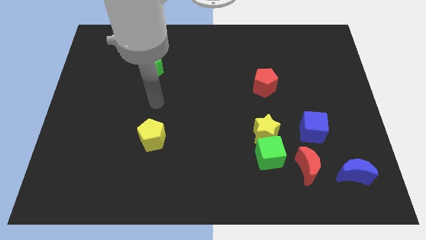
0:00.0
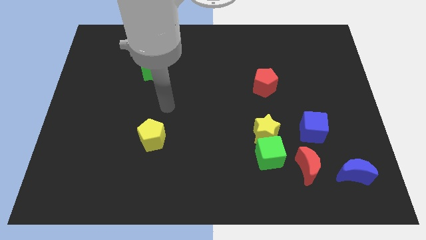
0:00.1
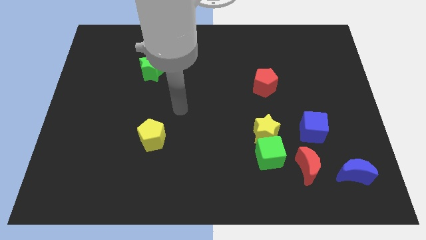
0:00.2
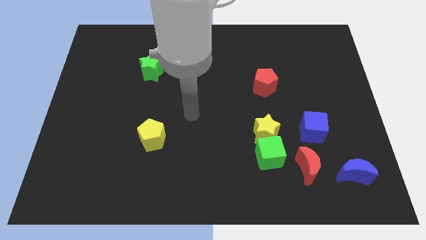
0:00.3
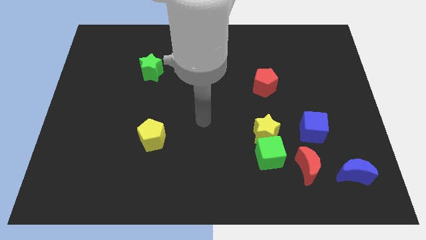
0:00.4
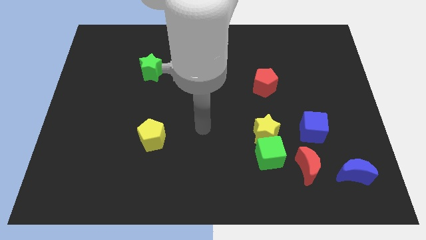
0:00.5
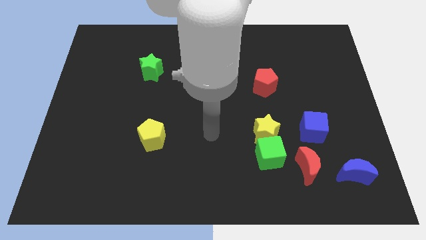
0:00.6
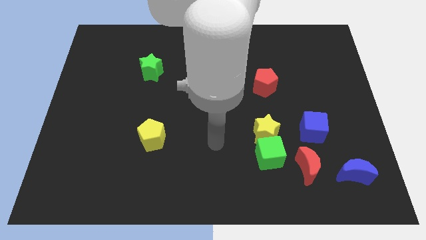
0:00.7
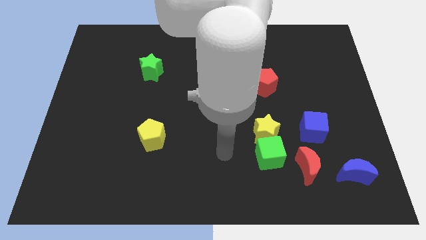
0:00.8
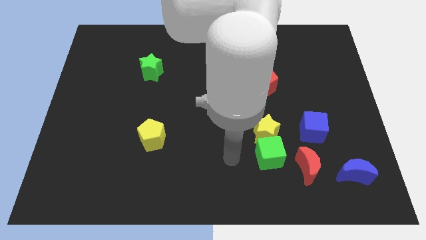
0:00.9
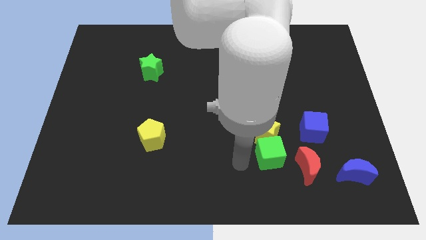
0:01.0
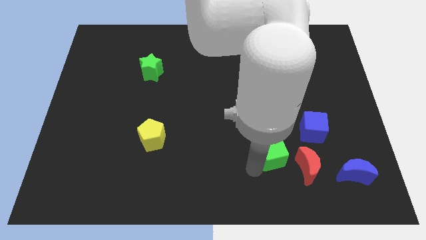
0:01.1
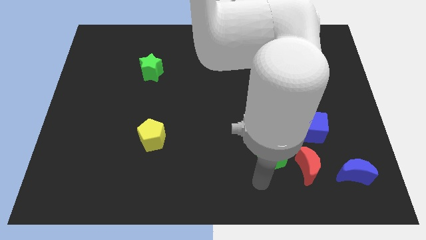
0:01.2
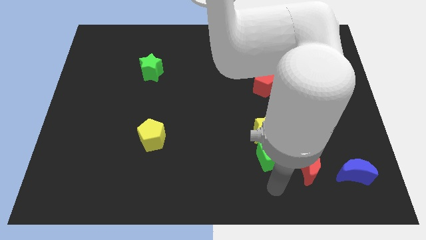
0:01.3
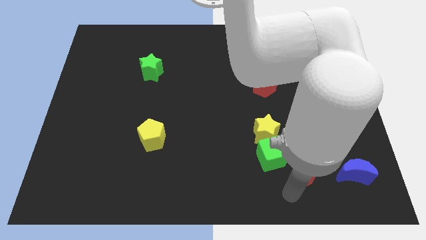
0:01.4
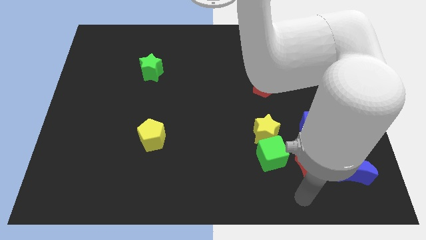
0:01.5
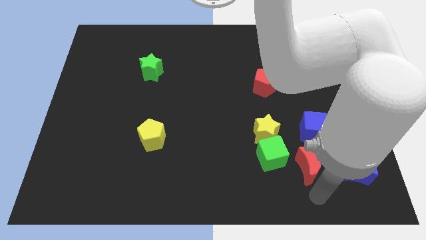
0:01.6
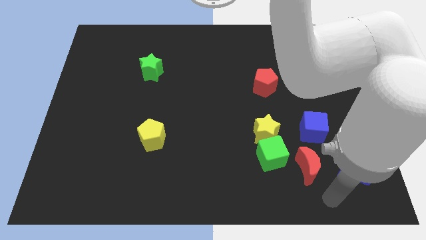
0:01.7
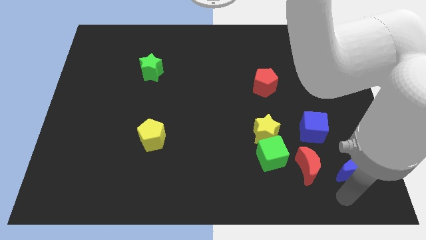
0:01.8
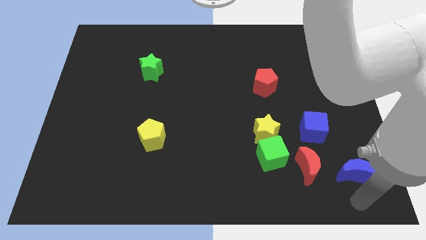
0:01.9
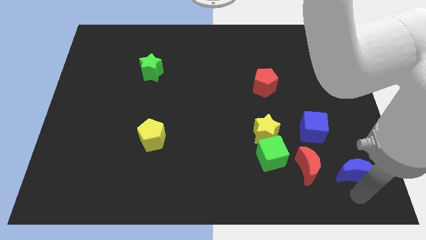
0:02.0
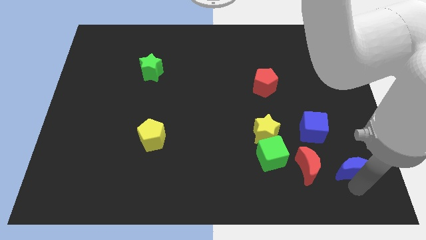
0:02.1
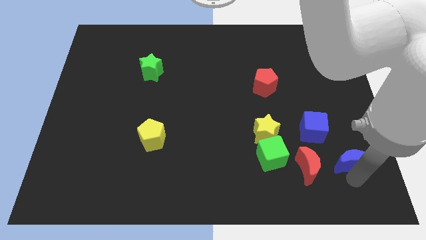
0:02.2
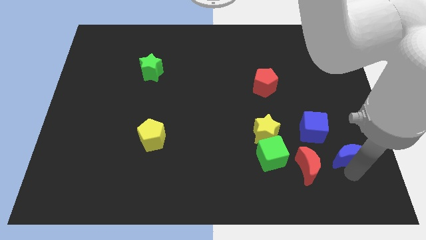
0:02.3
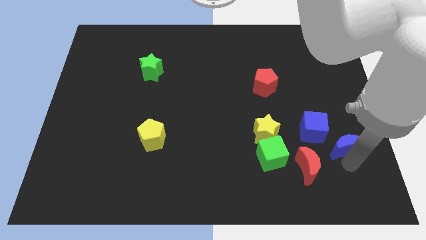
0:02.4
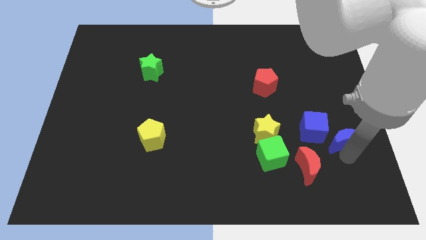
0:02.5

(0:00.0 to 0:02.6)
slide the blue moon a bit up

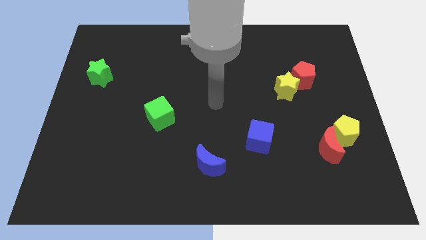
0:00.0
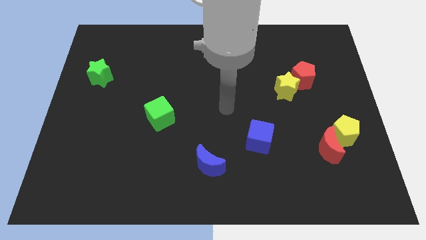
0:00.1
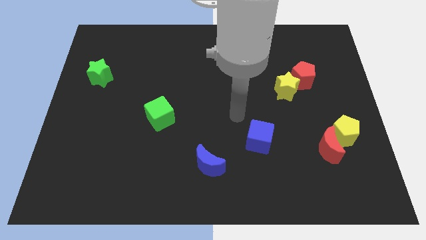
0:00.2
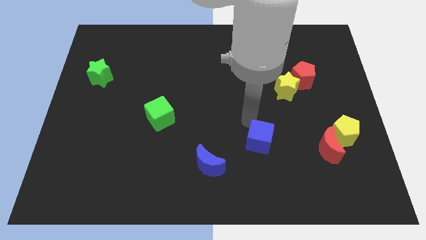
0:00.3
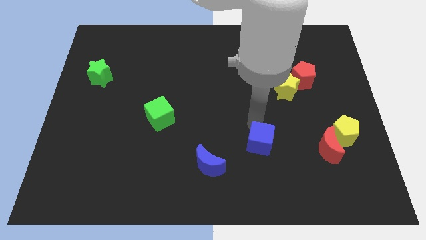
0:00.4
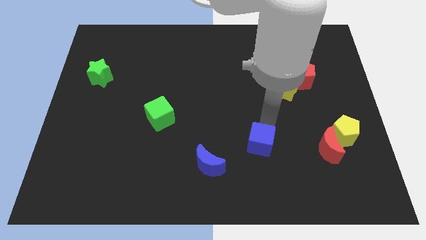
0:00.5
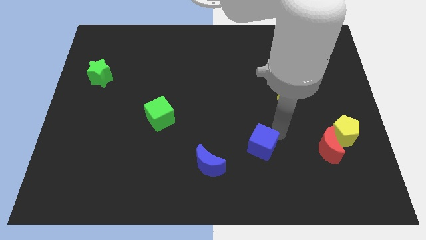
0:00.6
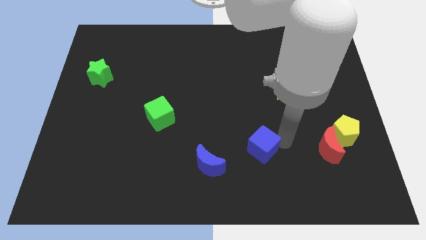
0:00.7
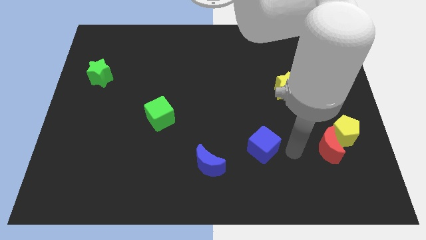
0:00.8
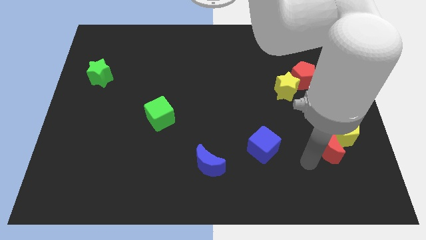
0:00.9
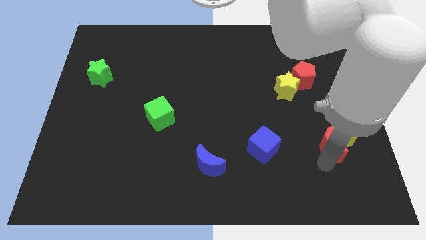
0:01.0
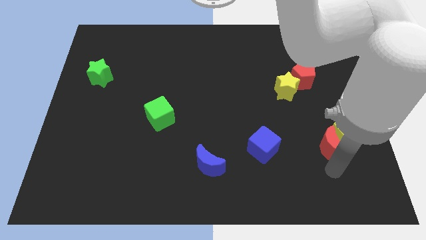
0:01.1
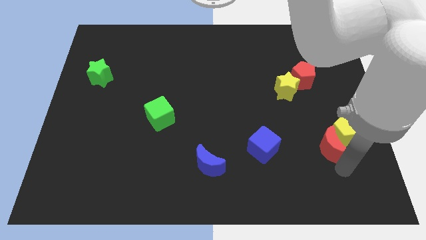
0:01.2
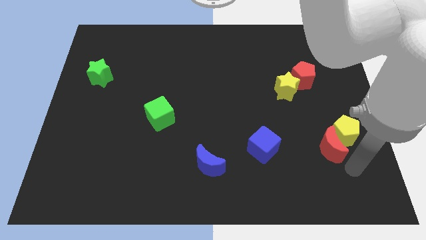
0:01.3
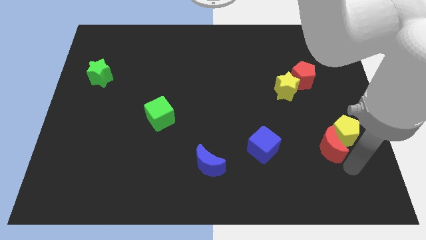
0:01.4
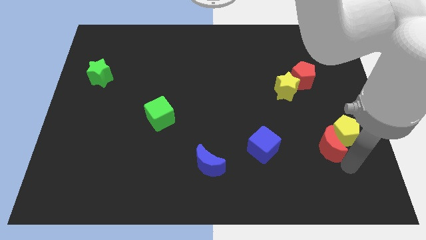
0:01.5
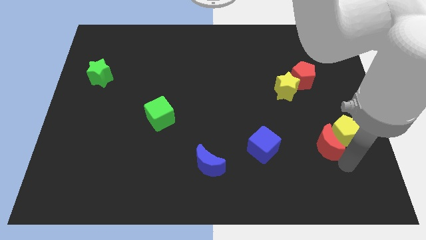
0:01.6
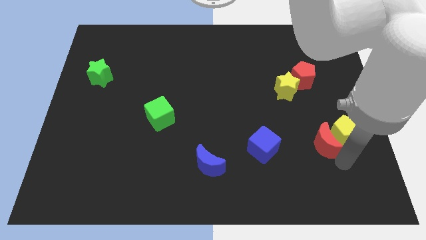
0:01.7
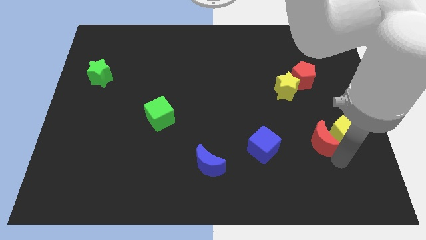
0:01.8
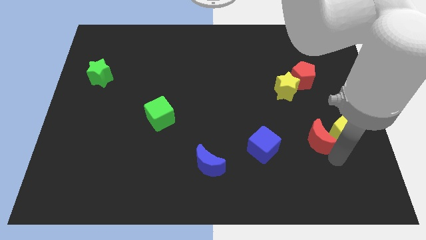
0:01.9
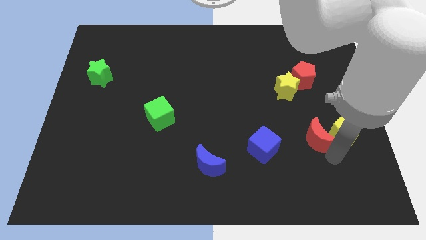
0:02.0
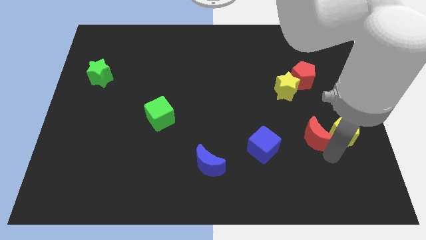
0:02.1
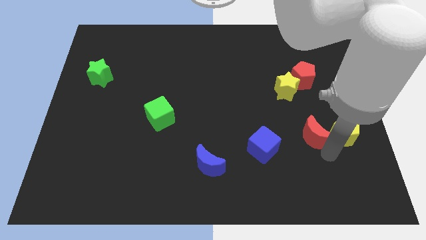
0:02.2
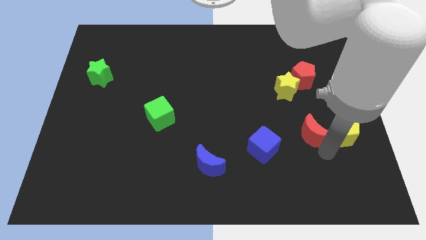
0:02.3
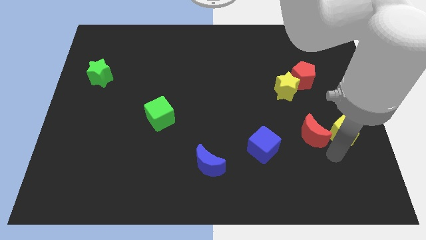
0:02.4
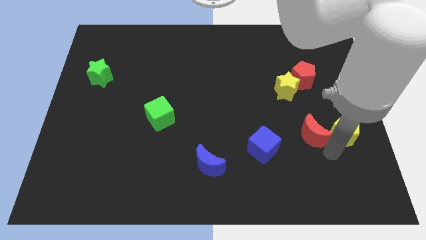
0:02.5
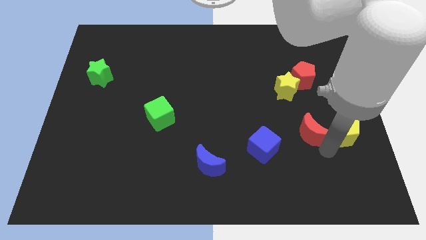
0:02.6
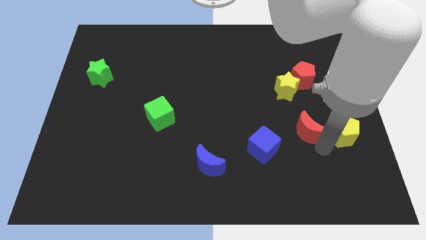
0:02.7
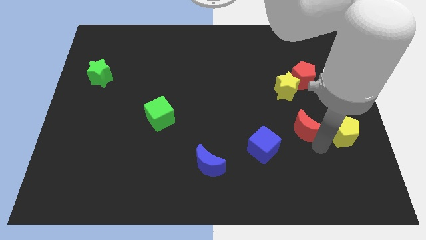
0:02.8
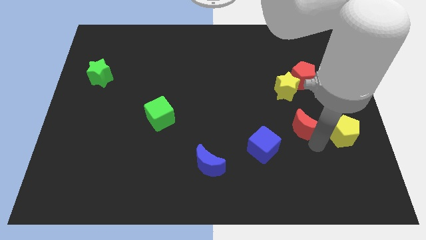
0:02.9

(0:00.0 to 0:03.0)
move the red moon a little bit upwards and left diagonally

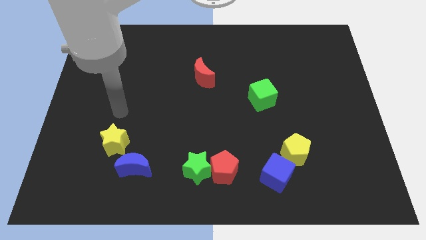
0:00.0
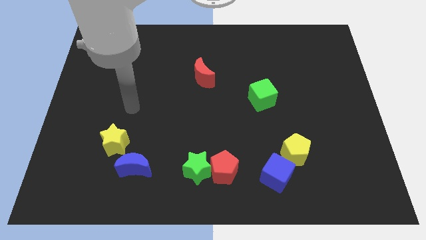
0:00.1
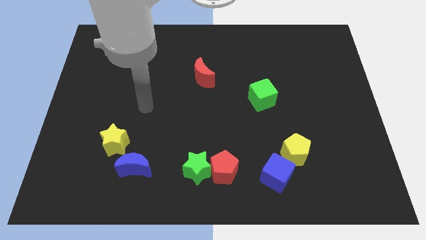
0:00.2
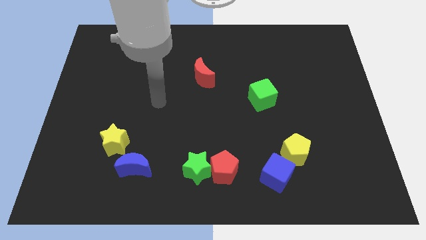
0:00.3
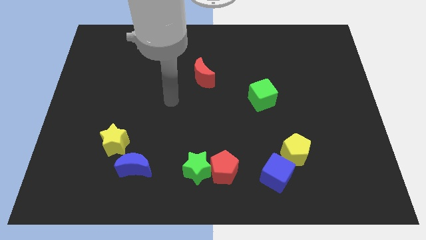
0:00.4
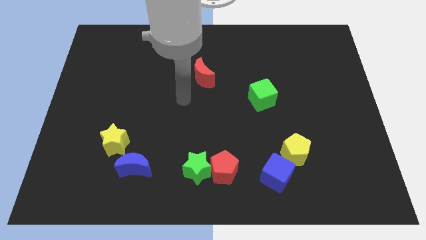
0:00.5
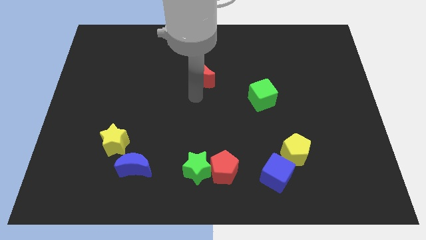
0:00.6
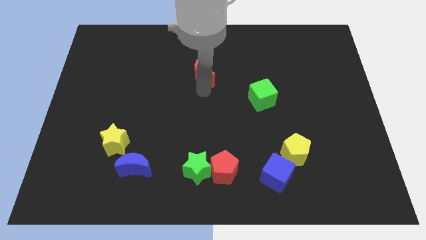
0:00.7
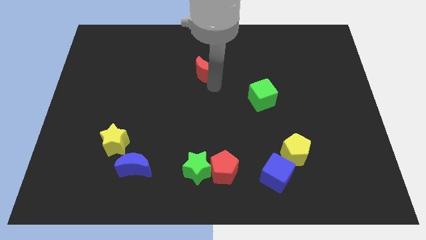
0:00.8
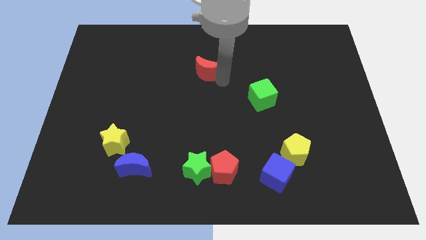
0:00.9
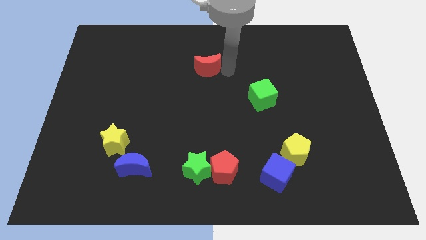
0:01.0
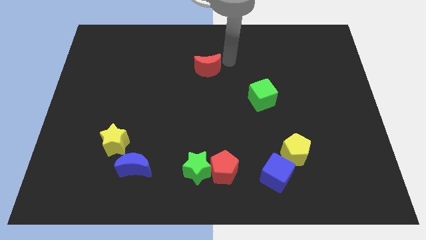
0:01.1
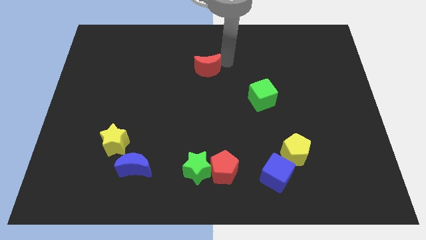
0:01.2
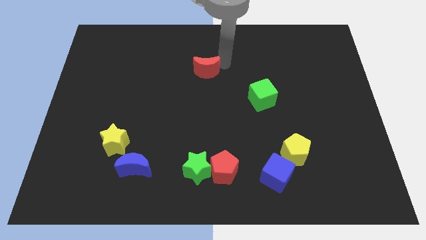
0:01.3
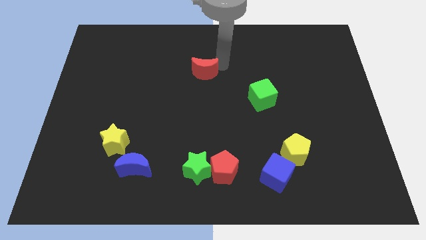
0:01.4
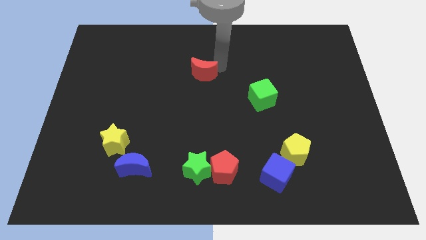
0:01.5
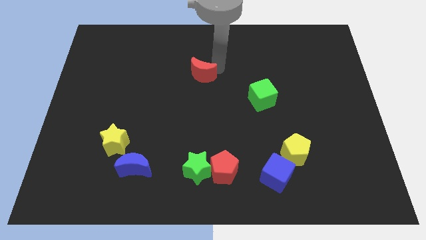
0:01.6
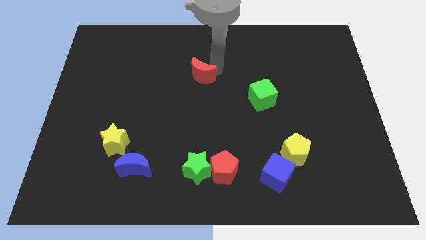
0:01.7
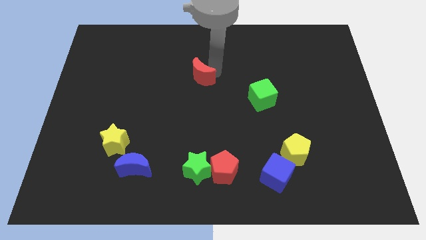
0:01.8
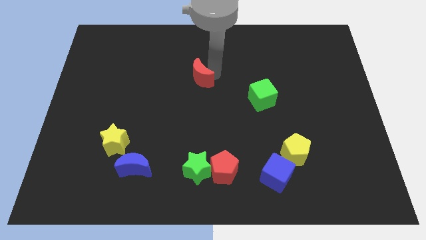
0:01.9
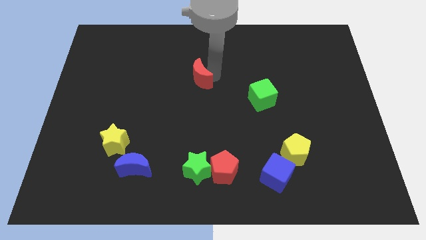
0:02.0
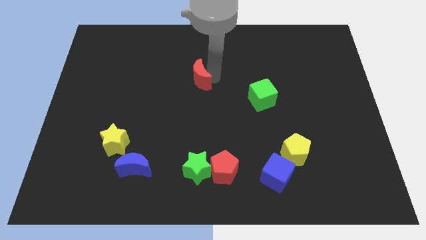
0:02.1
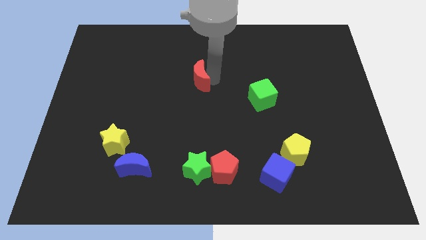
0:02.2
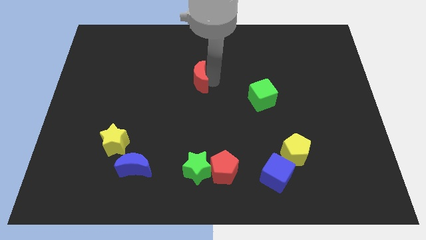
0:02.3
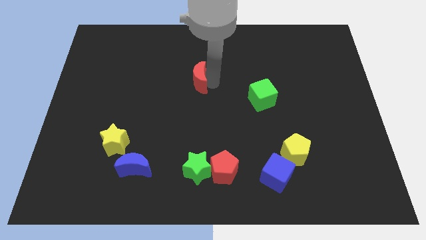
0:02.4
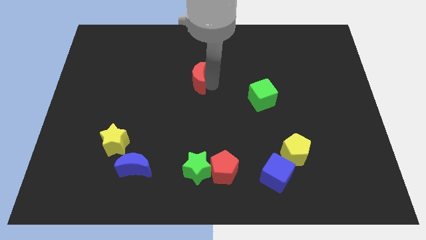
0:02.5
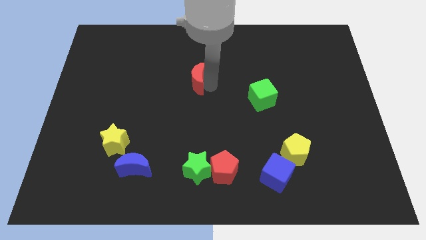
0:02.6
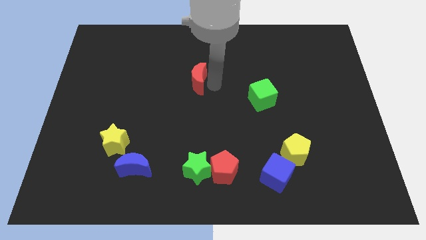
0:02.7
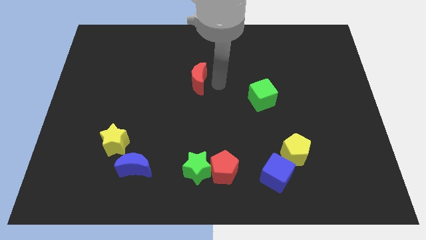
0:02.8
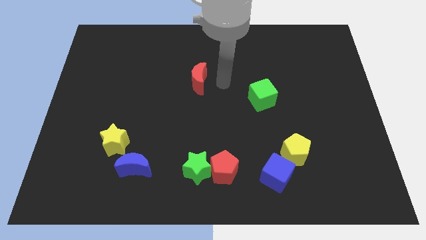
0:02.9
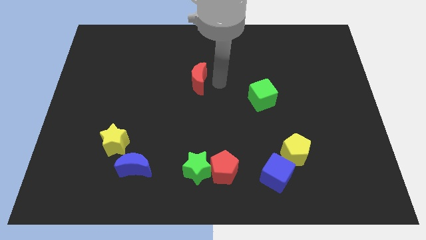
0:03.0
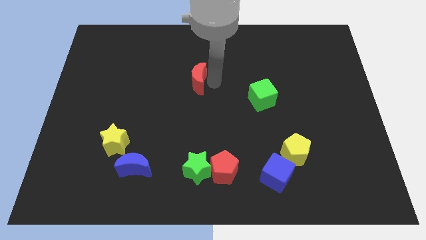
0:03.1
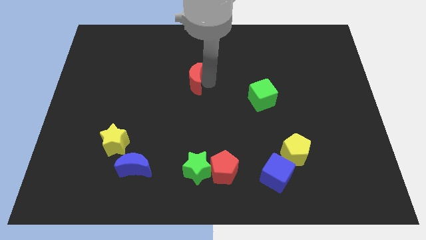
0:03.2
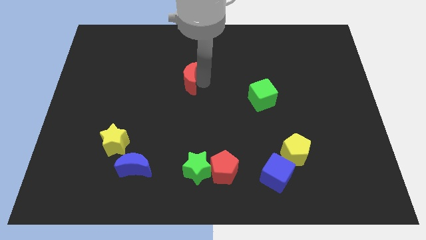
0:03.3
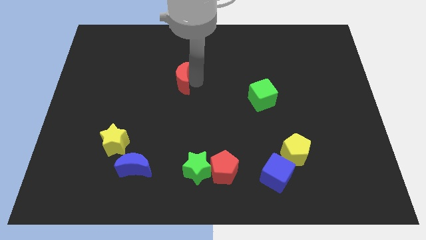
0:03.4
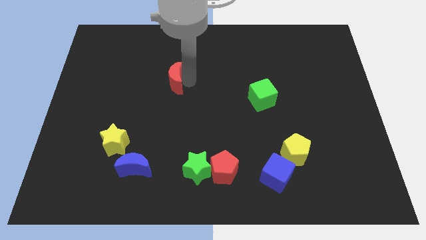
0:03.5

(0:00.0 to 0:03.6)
move the red moon to the left slightly
